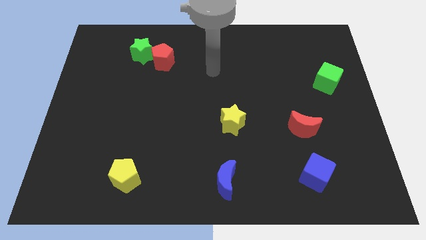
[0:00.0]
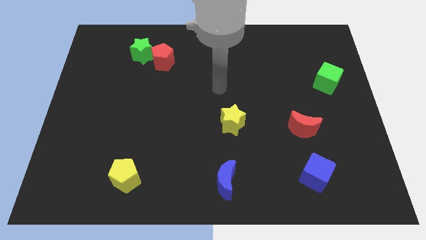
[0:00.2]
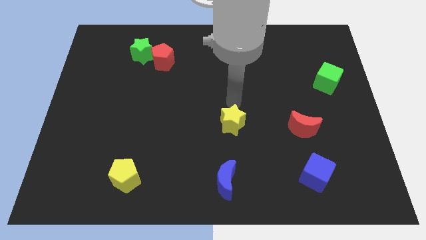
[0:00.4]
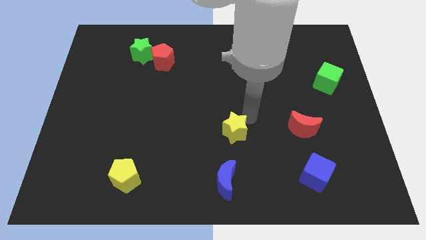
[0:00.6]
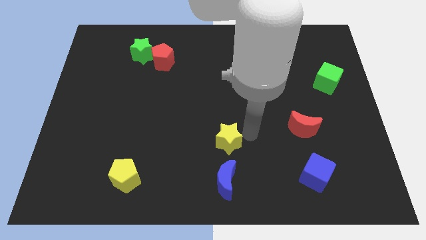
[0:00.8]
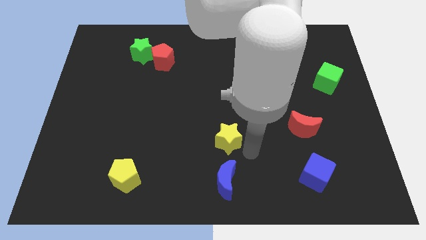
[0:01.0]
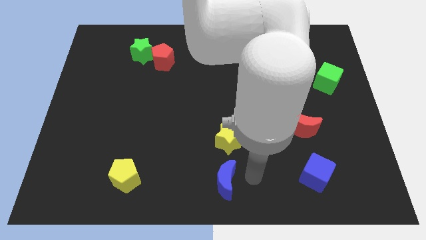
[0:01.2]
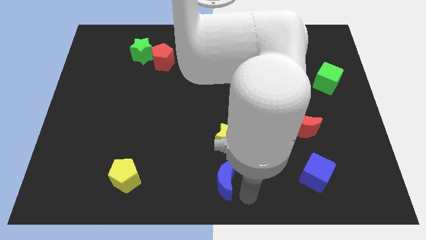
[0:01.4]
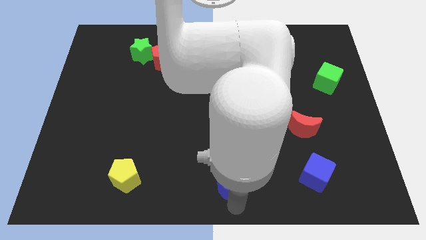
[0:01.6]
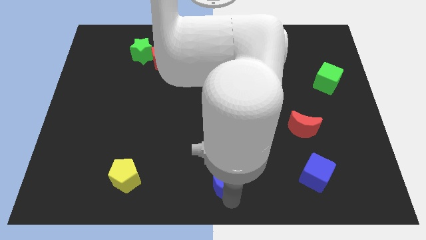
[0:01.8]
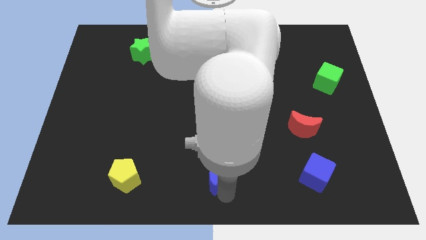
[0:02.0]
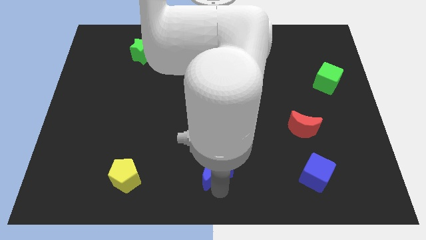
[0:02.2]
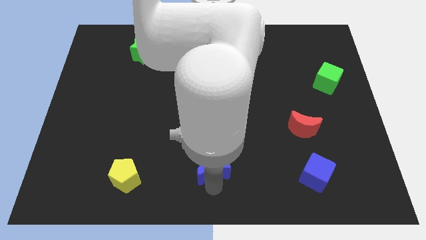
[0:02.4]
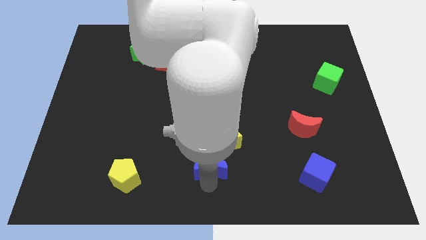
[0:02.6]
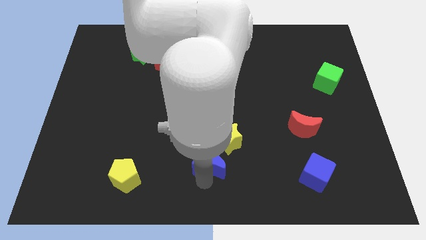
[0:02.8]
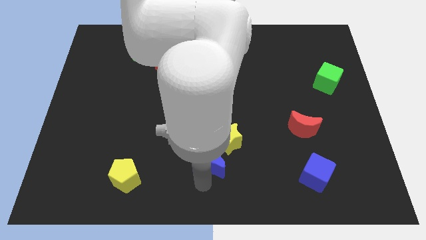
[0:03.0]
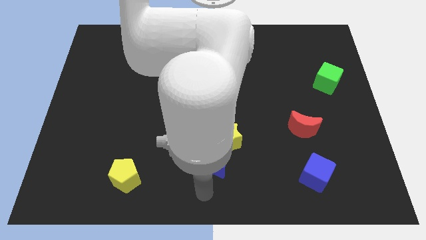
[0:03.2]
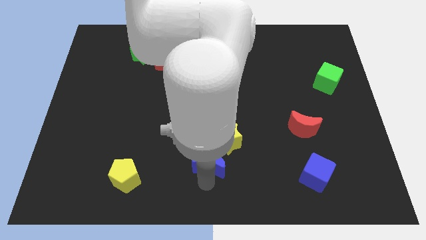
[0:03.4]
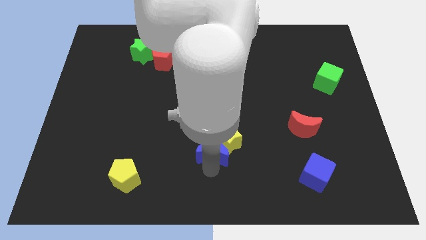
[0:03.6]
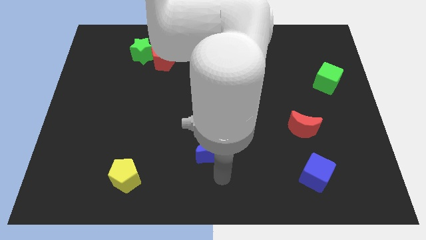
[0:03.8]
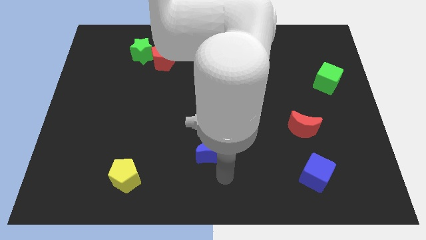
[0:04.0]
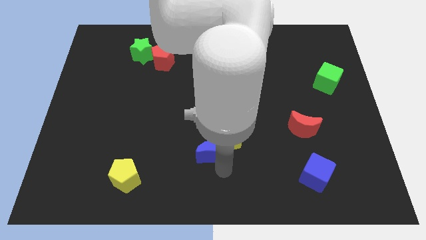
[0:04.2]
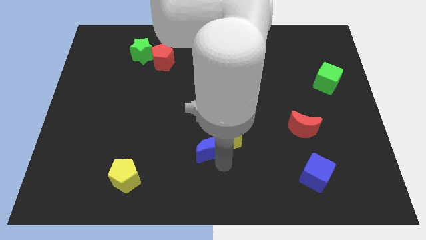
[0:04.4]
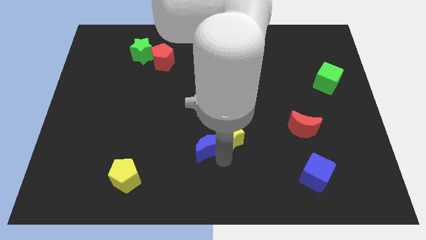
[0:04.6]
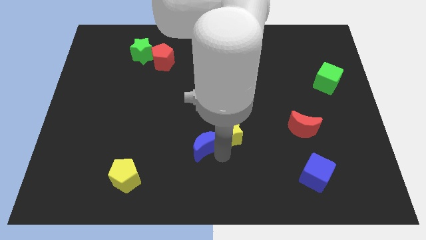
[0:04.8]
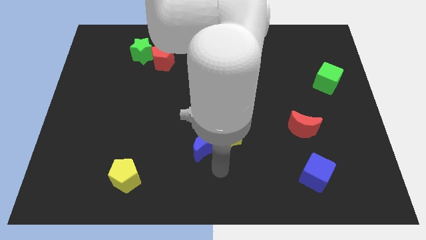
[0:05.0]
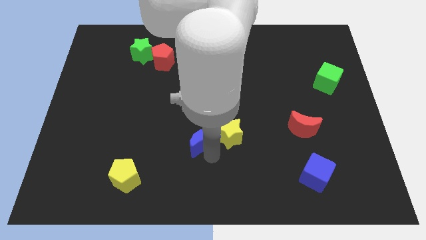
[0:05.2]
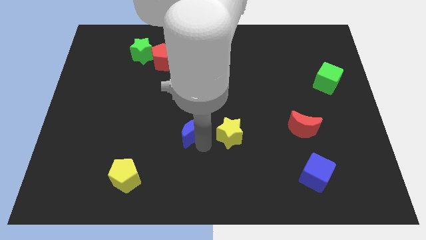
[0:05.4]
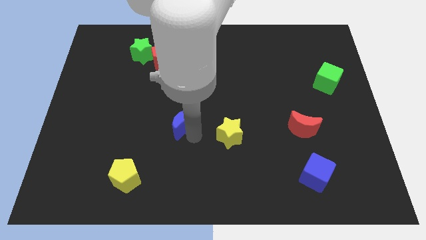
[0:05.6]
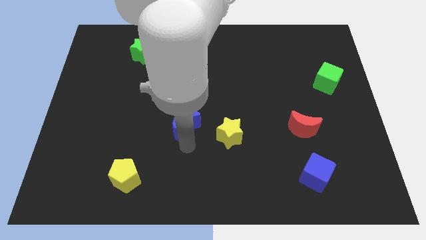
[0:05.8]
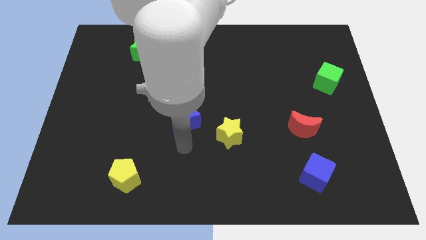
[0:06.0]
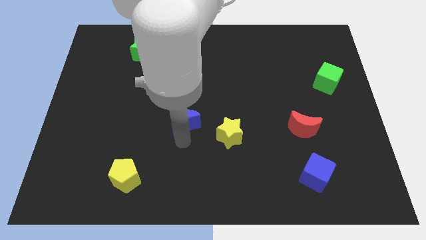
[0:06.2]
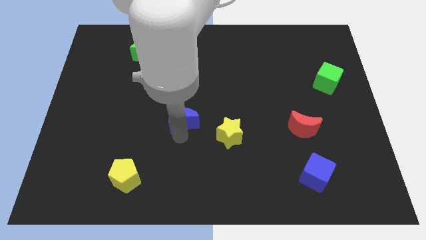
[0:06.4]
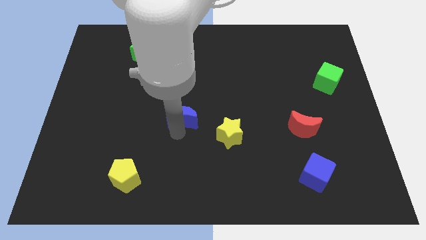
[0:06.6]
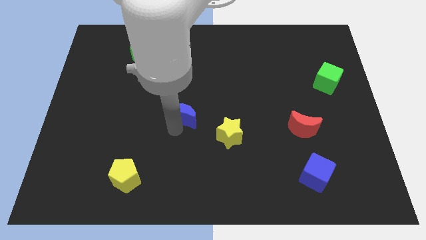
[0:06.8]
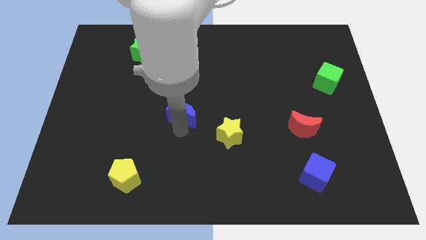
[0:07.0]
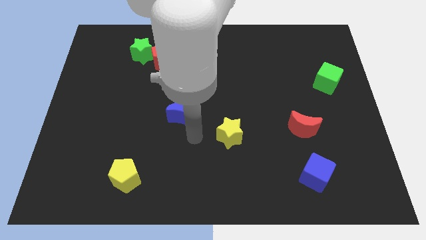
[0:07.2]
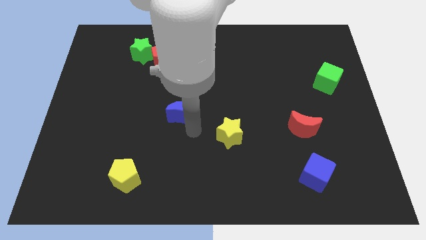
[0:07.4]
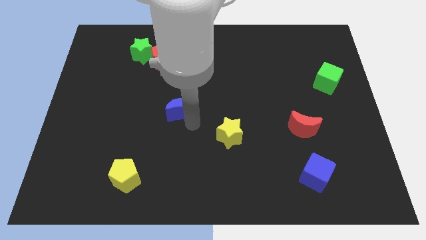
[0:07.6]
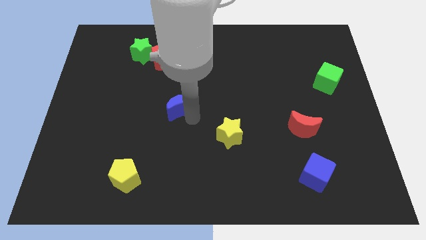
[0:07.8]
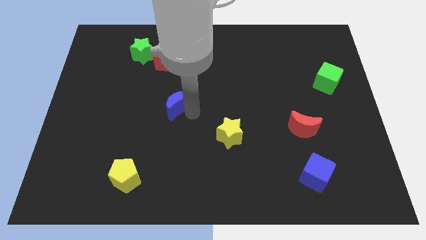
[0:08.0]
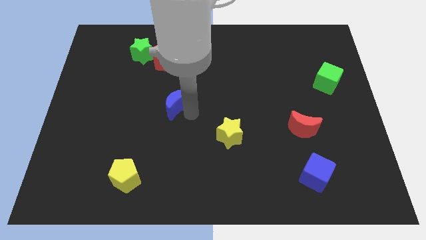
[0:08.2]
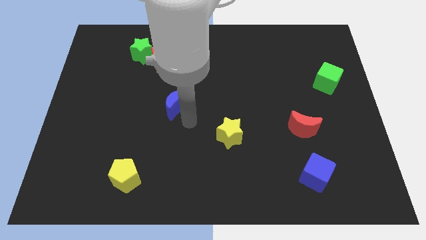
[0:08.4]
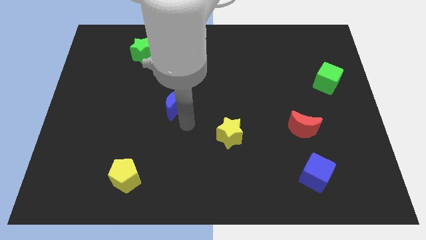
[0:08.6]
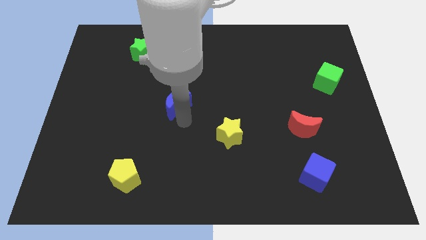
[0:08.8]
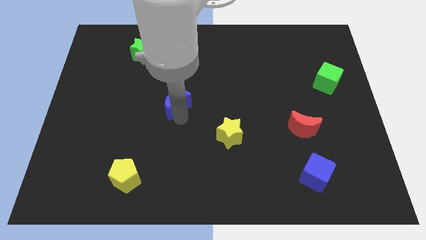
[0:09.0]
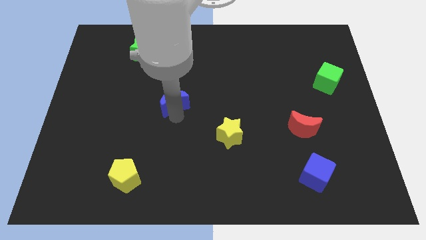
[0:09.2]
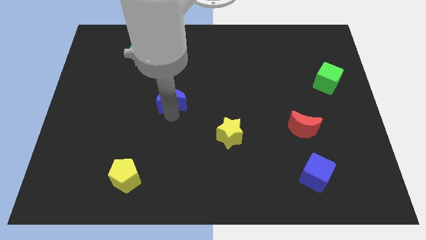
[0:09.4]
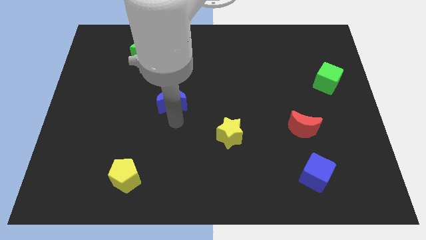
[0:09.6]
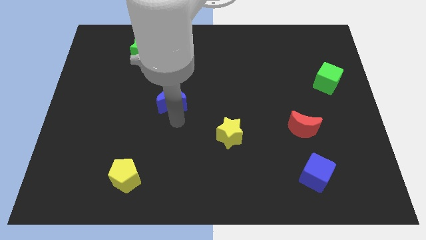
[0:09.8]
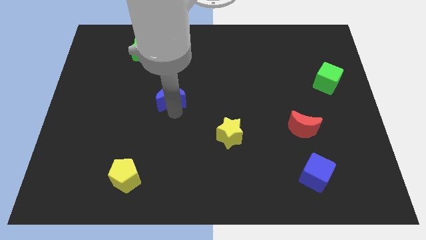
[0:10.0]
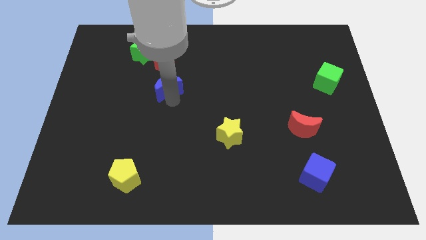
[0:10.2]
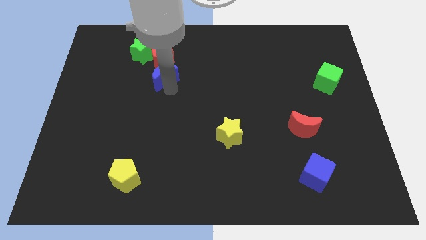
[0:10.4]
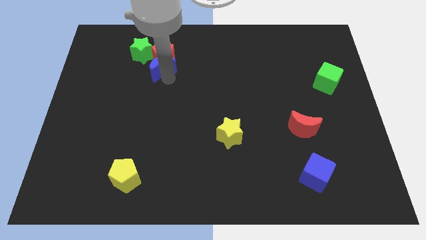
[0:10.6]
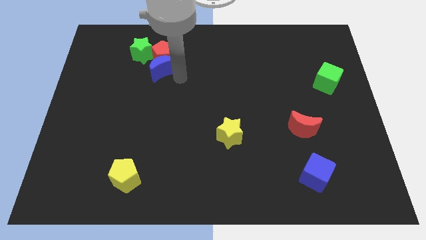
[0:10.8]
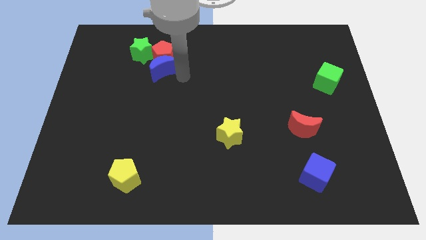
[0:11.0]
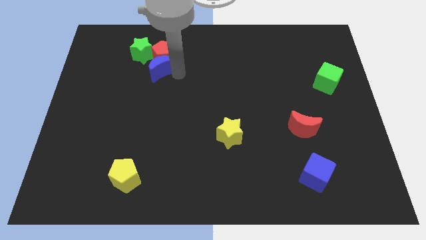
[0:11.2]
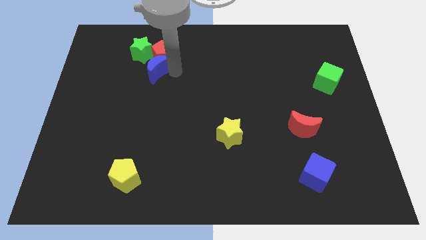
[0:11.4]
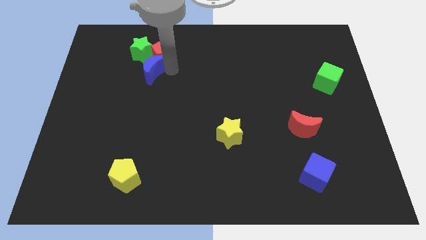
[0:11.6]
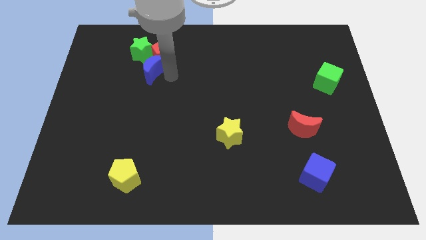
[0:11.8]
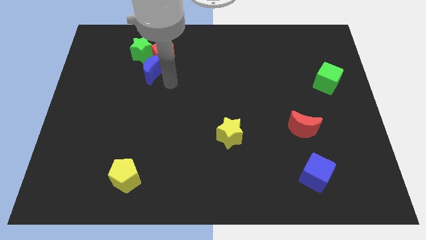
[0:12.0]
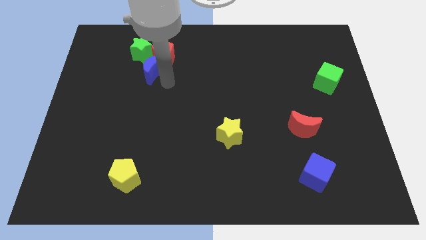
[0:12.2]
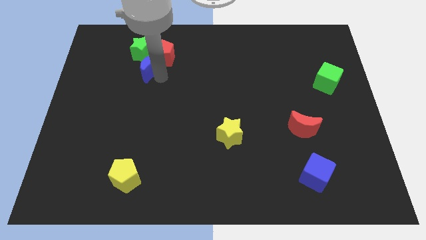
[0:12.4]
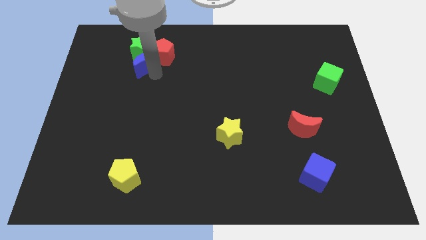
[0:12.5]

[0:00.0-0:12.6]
move the blue moon close to the green star
